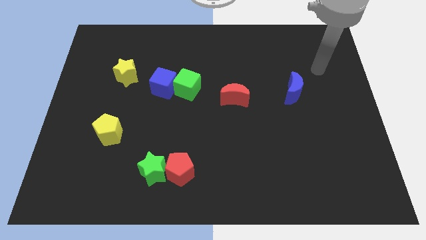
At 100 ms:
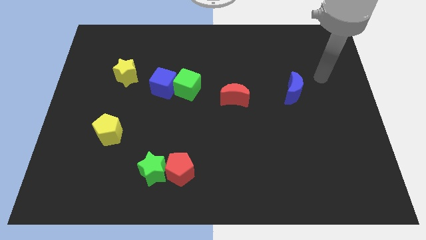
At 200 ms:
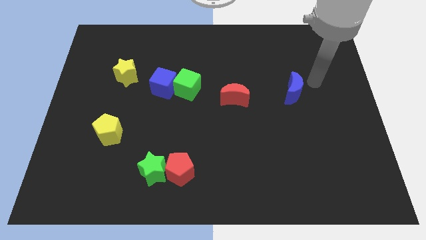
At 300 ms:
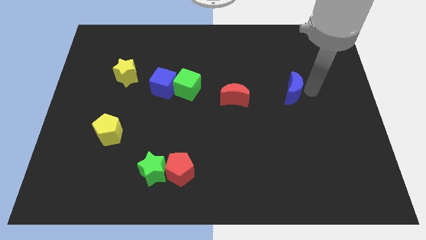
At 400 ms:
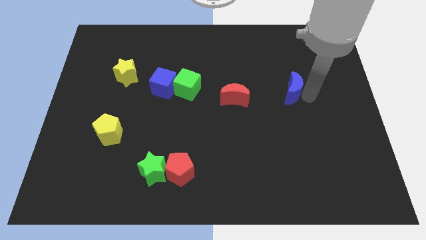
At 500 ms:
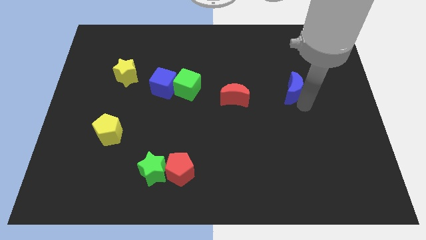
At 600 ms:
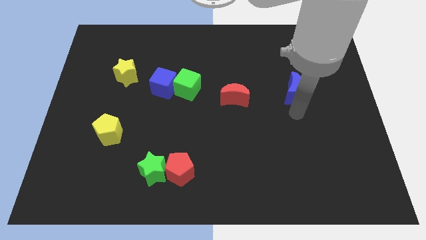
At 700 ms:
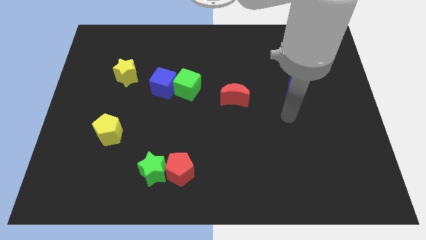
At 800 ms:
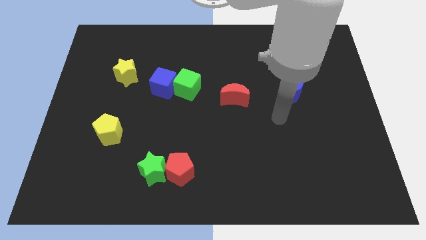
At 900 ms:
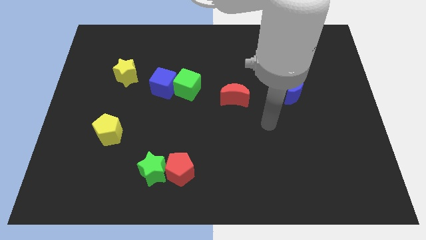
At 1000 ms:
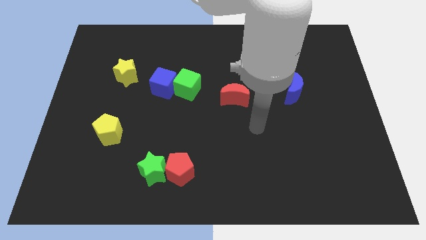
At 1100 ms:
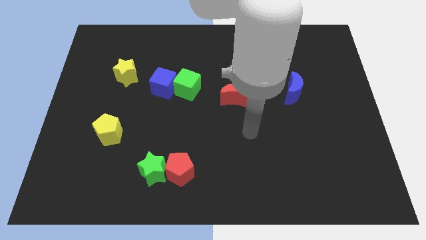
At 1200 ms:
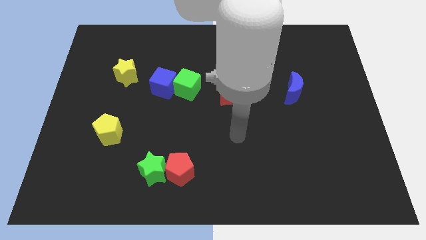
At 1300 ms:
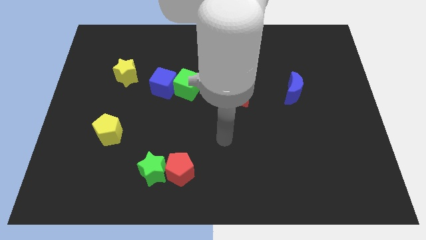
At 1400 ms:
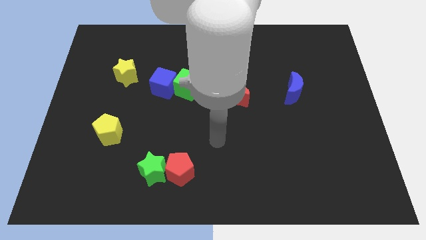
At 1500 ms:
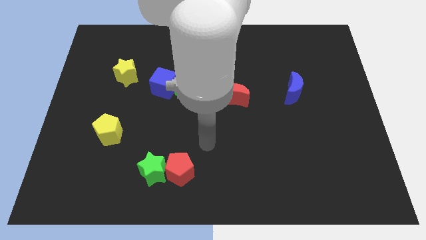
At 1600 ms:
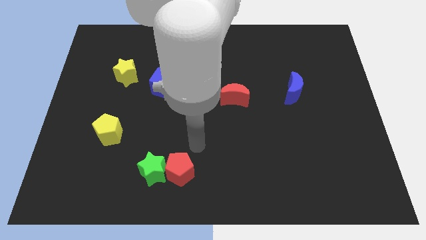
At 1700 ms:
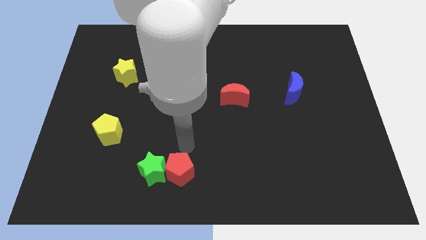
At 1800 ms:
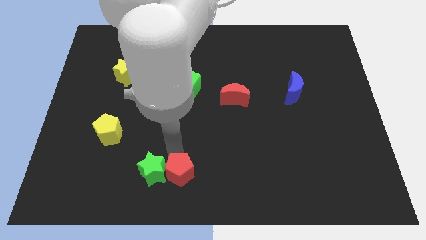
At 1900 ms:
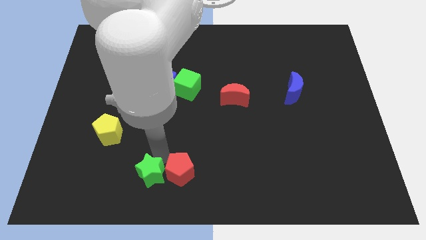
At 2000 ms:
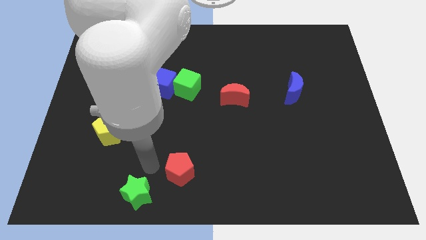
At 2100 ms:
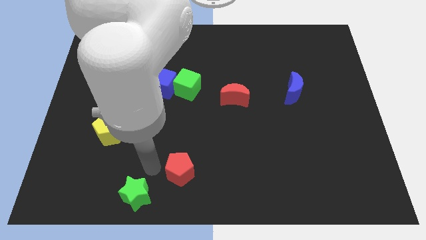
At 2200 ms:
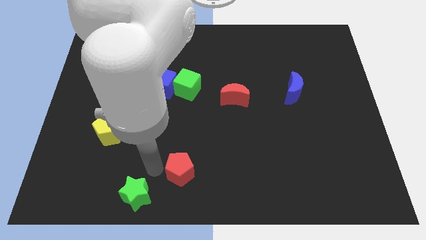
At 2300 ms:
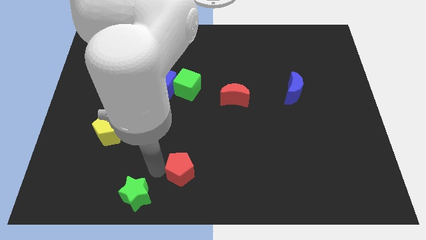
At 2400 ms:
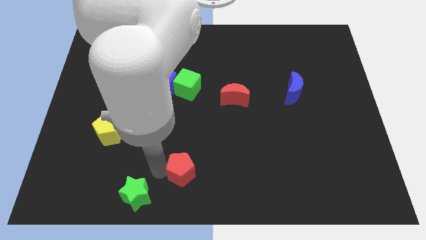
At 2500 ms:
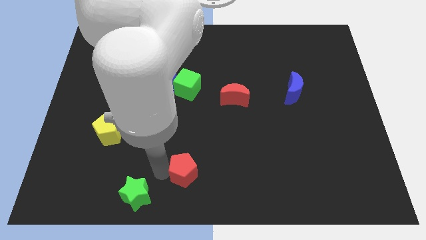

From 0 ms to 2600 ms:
separate the red pentagon from the green star

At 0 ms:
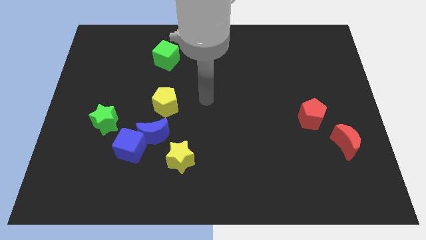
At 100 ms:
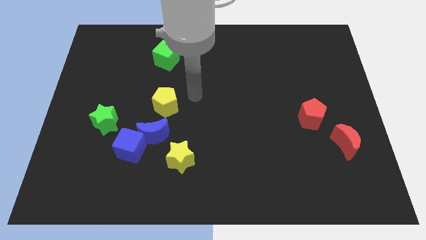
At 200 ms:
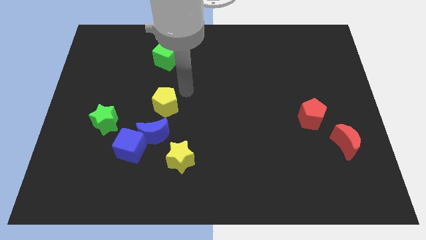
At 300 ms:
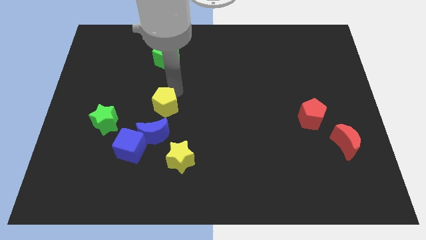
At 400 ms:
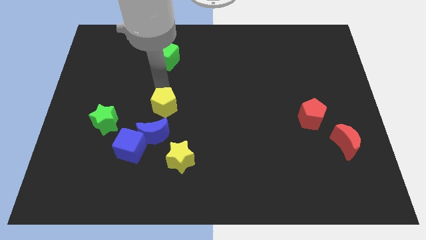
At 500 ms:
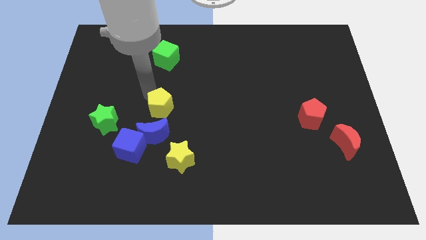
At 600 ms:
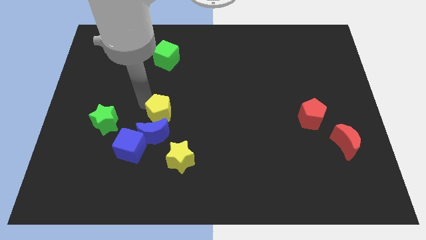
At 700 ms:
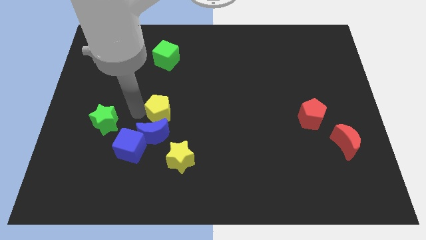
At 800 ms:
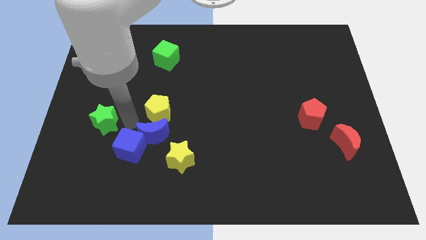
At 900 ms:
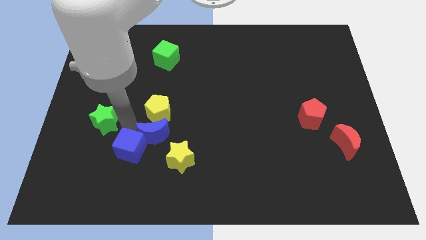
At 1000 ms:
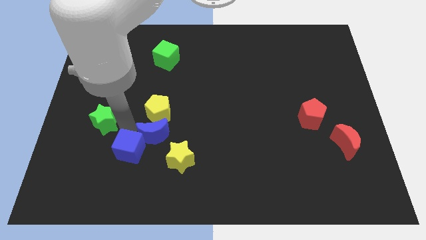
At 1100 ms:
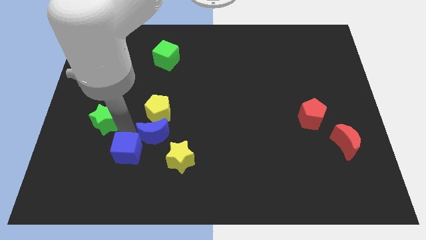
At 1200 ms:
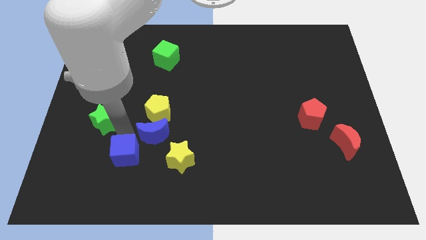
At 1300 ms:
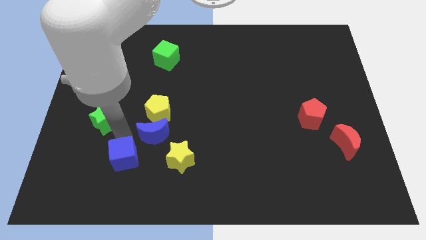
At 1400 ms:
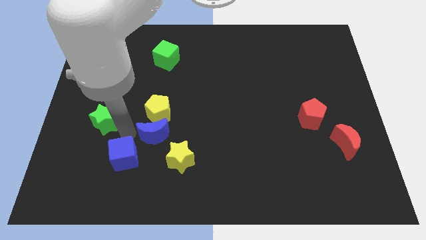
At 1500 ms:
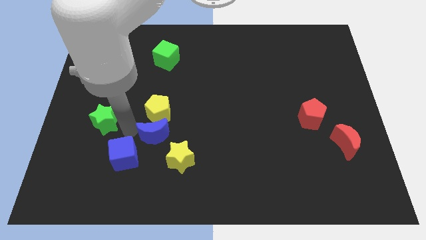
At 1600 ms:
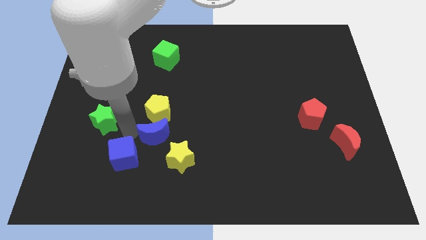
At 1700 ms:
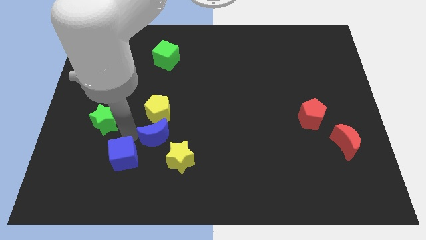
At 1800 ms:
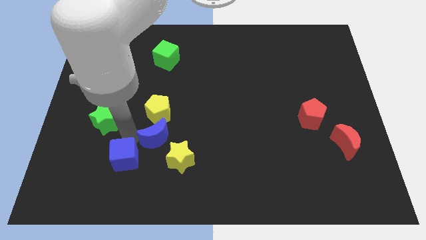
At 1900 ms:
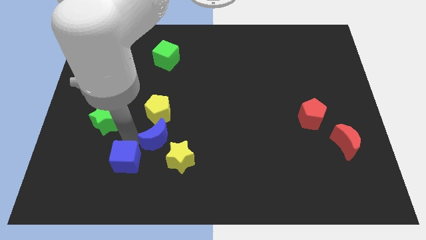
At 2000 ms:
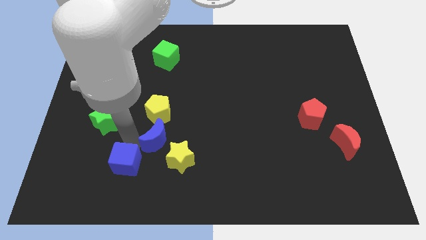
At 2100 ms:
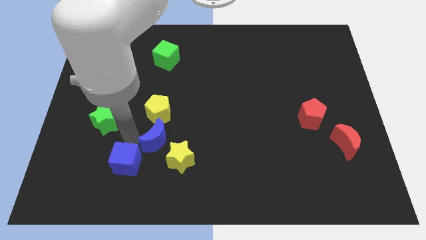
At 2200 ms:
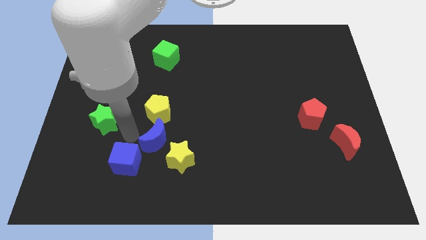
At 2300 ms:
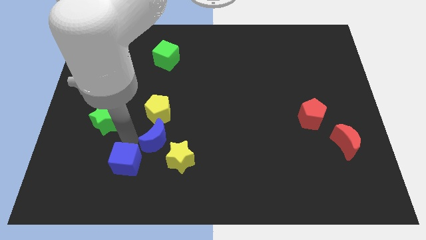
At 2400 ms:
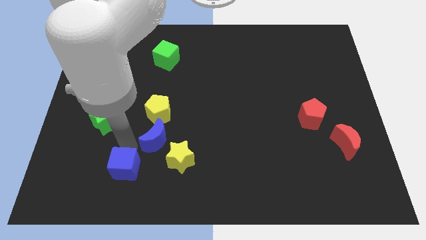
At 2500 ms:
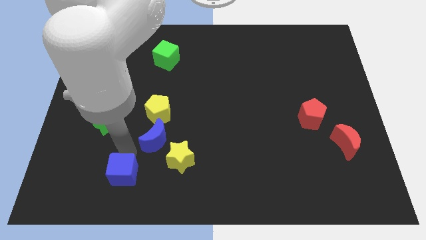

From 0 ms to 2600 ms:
pull the blue cube apart from the blue moon and green star

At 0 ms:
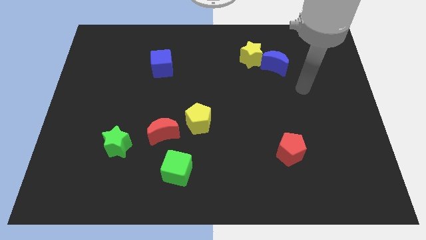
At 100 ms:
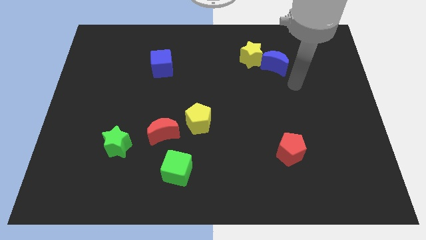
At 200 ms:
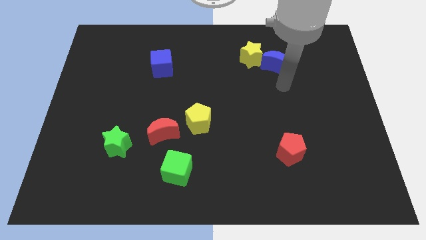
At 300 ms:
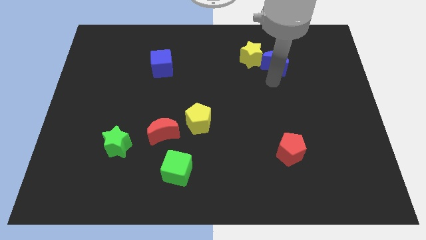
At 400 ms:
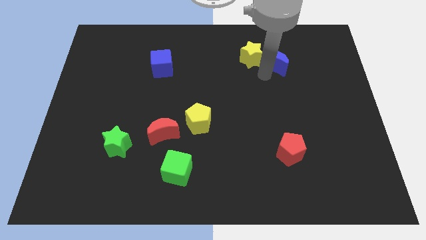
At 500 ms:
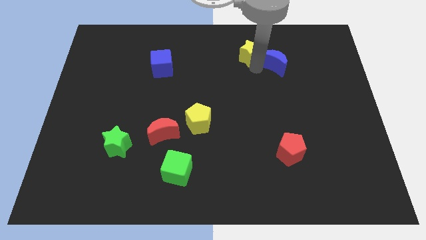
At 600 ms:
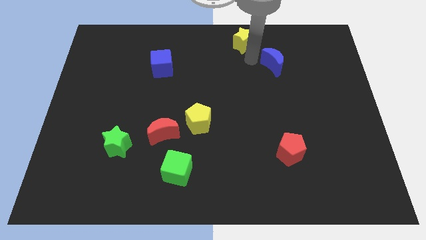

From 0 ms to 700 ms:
pull the blue moon apart from the yellow star

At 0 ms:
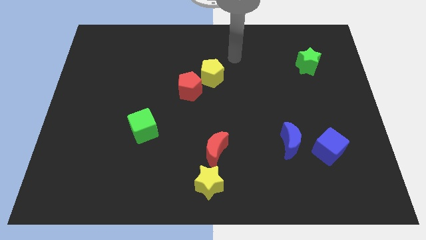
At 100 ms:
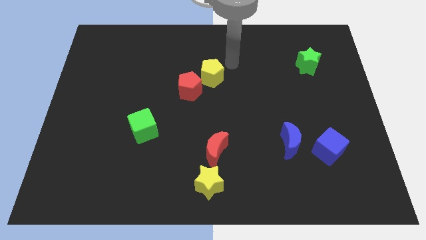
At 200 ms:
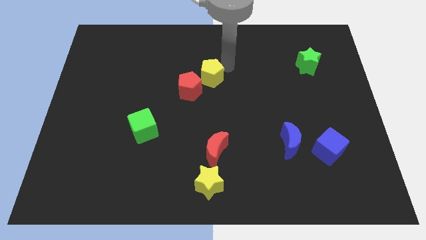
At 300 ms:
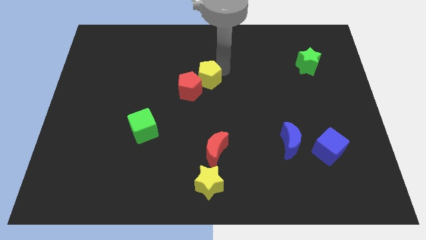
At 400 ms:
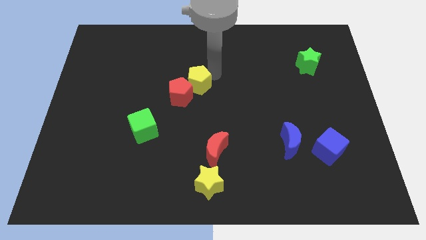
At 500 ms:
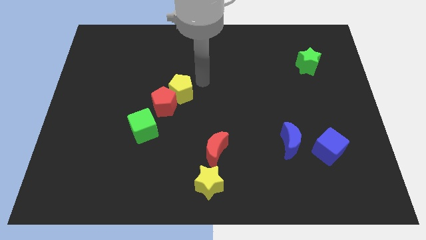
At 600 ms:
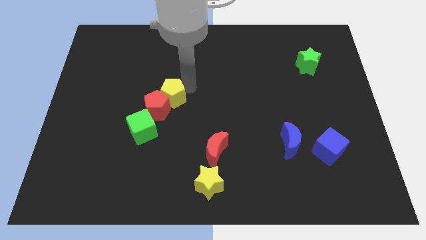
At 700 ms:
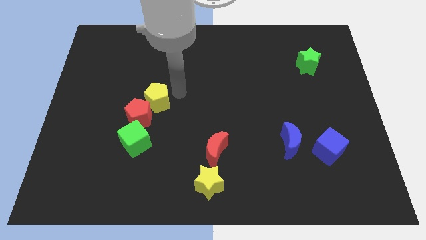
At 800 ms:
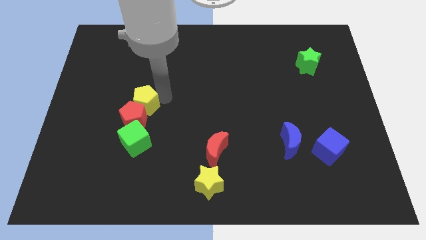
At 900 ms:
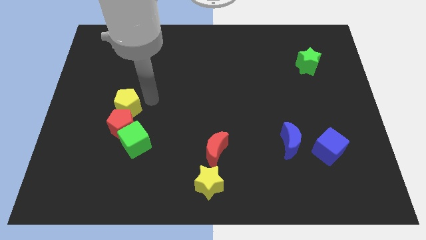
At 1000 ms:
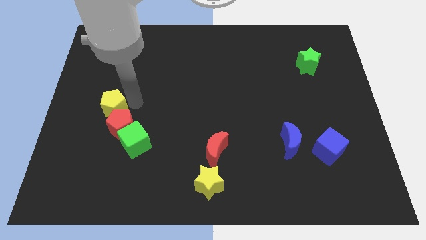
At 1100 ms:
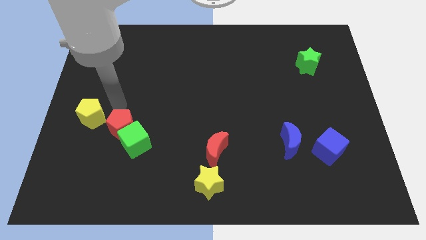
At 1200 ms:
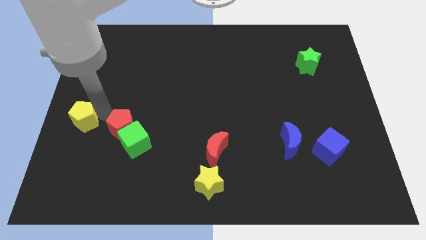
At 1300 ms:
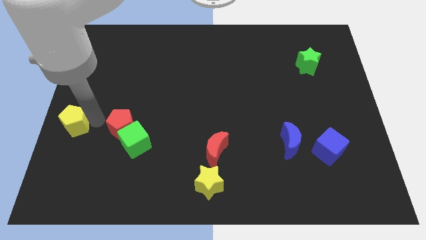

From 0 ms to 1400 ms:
pull the red pentagon apart from the yellow pentagon

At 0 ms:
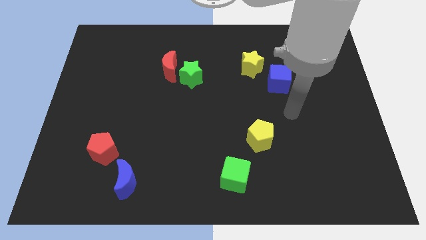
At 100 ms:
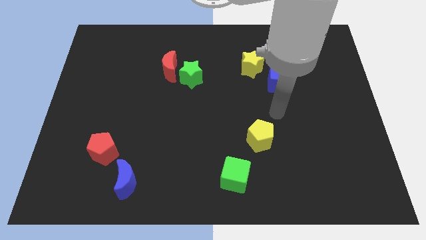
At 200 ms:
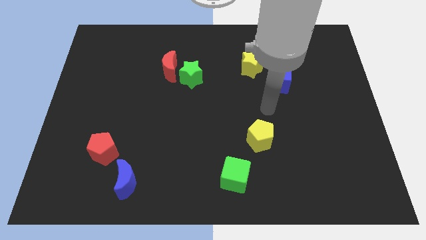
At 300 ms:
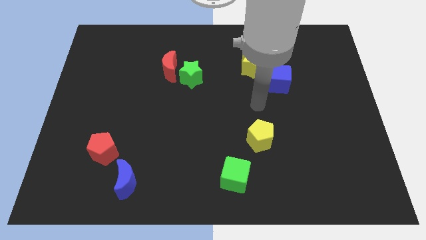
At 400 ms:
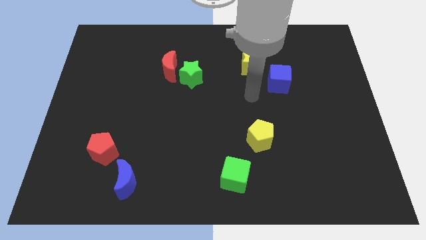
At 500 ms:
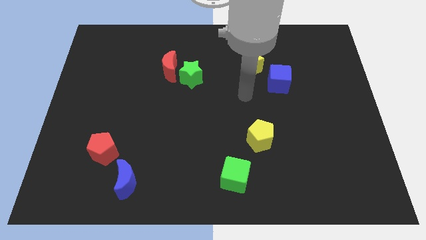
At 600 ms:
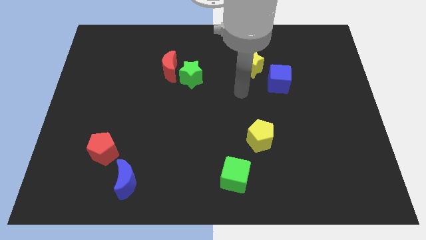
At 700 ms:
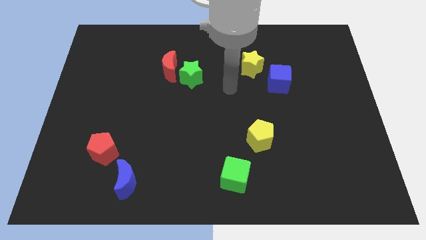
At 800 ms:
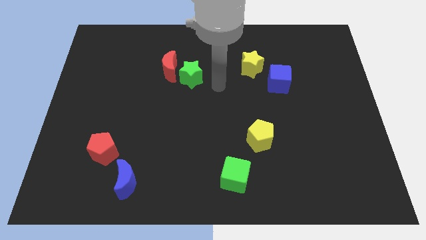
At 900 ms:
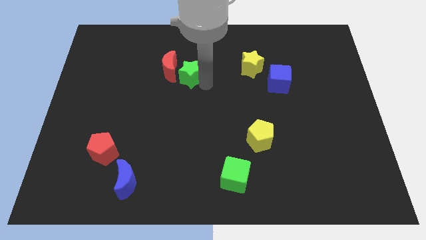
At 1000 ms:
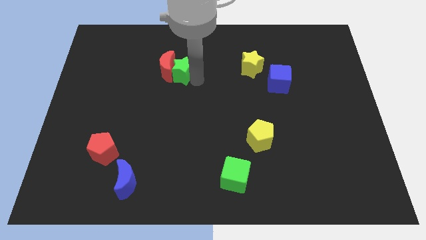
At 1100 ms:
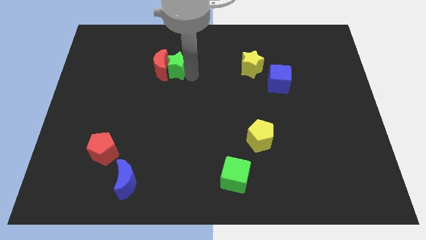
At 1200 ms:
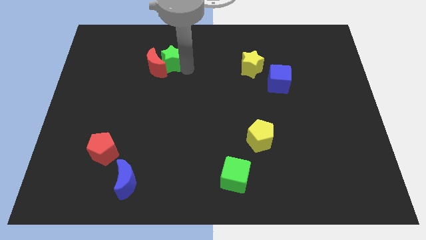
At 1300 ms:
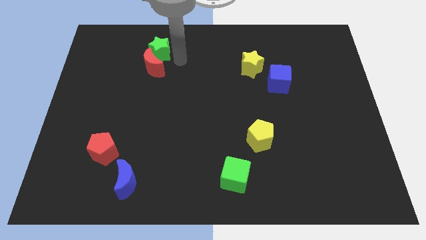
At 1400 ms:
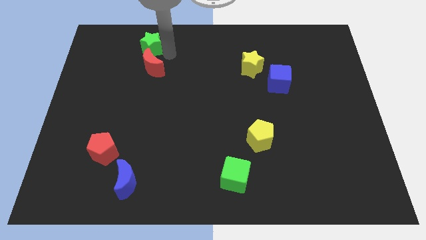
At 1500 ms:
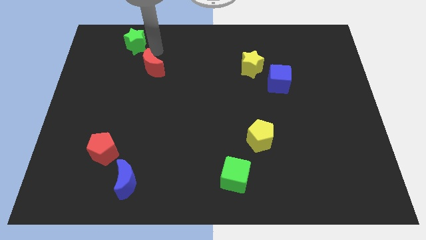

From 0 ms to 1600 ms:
separate the red moon from the green star

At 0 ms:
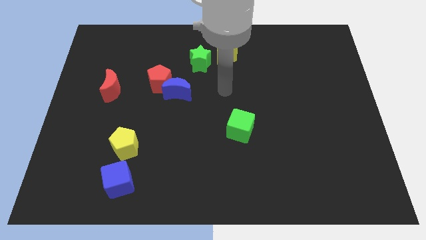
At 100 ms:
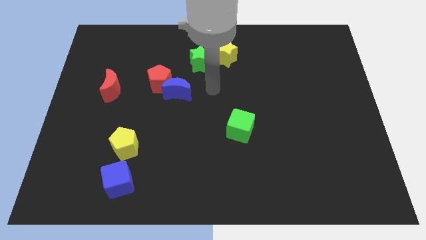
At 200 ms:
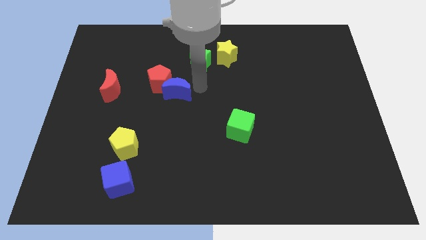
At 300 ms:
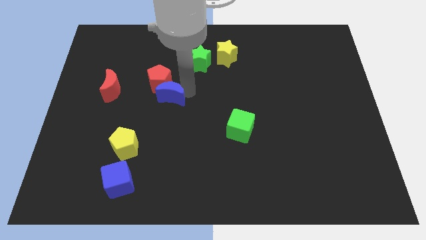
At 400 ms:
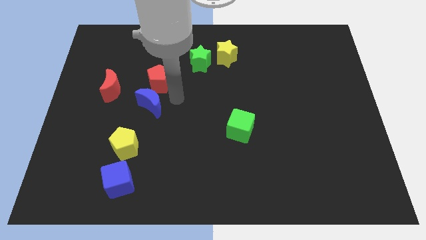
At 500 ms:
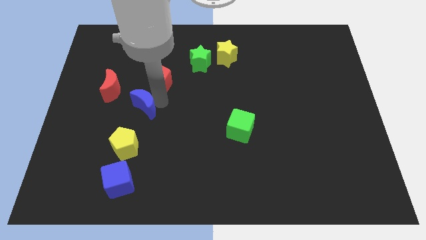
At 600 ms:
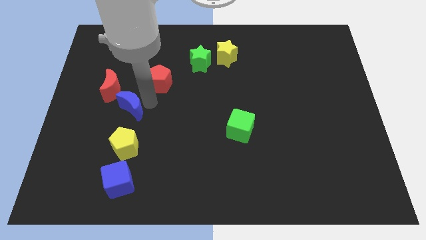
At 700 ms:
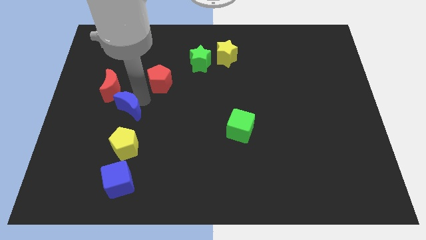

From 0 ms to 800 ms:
separate the red pentagon from the blue moon
